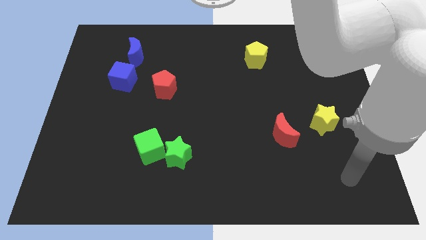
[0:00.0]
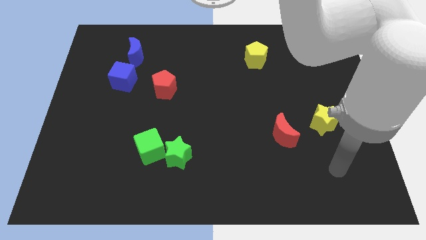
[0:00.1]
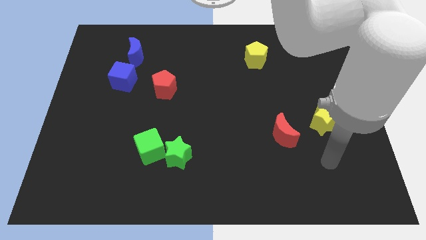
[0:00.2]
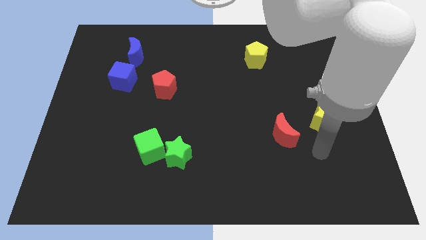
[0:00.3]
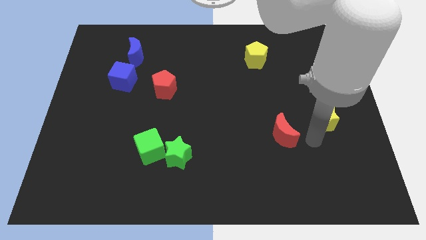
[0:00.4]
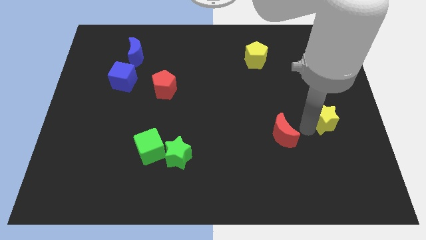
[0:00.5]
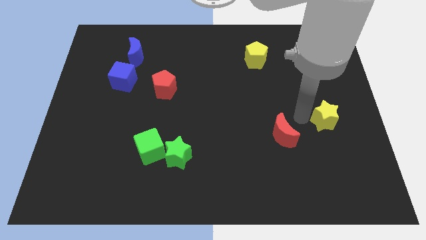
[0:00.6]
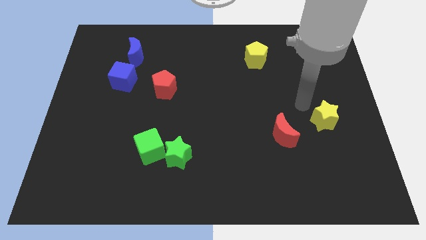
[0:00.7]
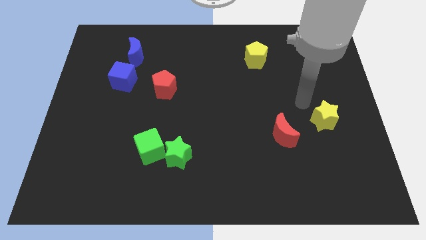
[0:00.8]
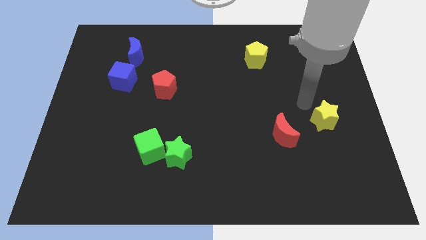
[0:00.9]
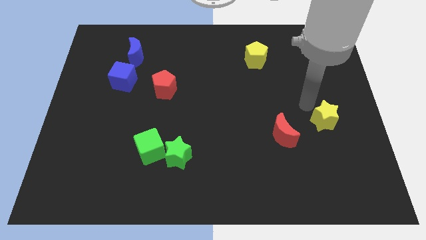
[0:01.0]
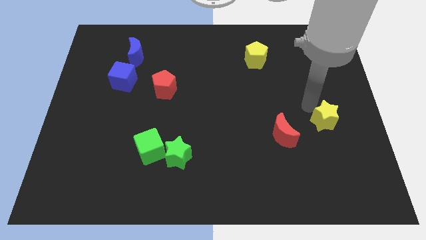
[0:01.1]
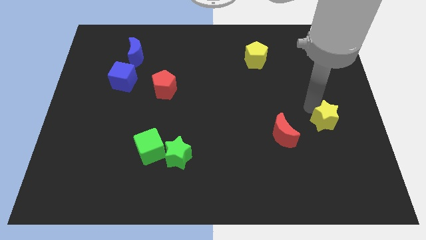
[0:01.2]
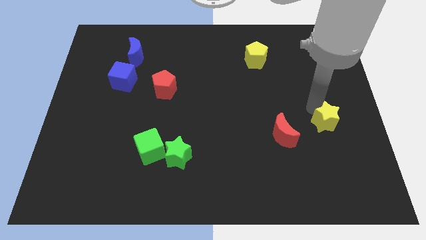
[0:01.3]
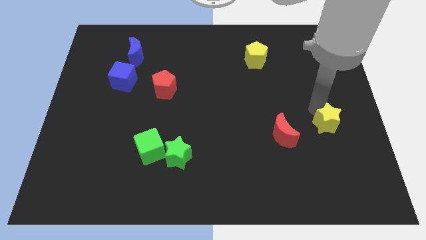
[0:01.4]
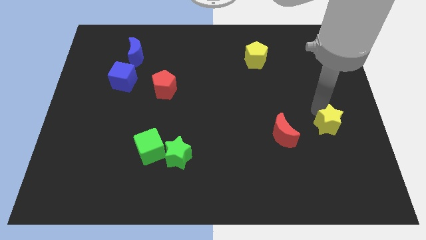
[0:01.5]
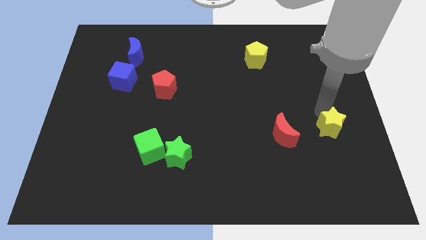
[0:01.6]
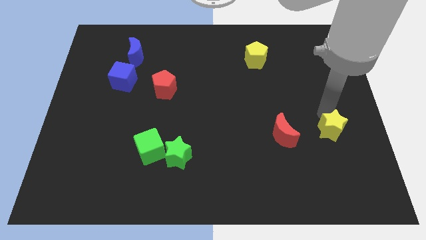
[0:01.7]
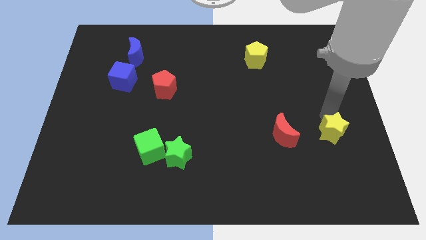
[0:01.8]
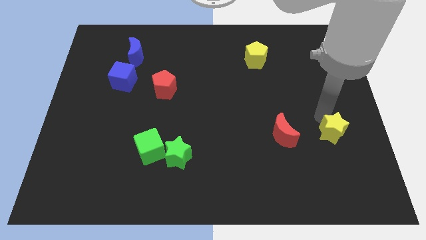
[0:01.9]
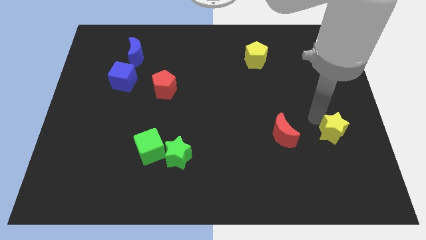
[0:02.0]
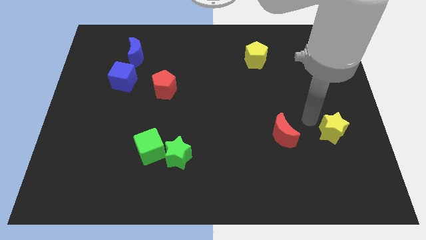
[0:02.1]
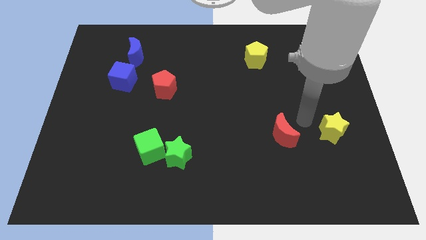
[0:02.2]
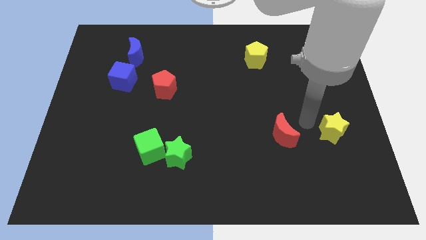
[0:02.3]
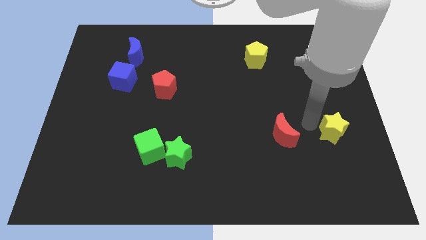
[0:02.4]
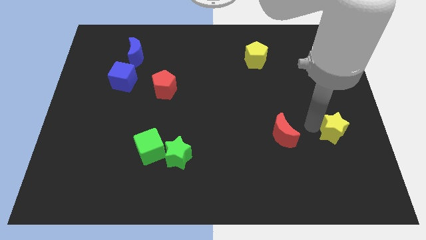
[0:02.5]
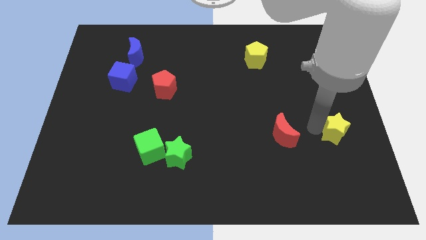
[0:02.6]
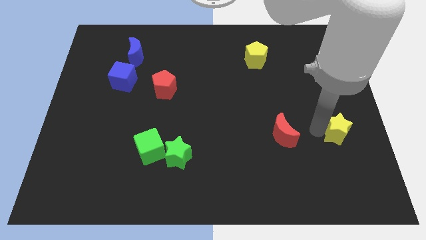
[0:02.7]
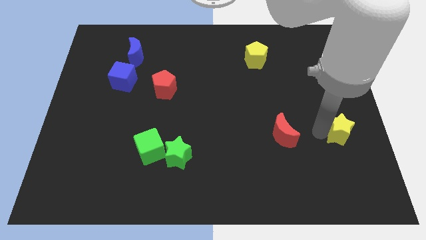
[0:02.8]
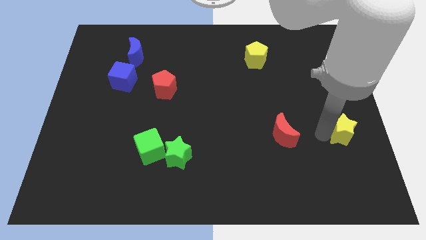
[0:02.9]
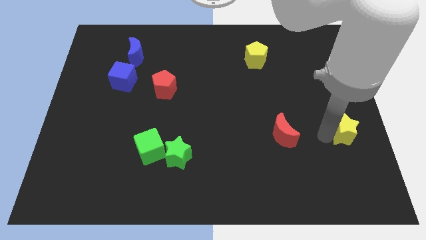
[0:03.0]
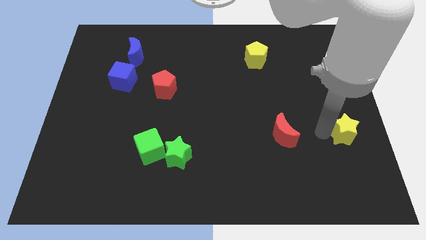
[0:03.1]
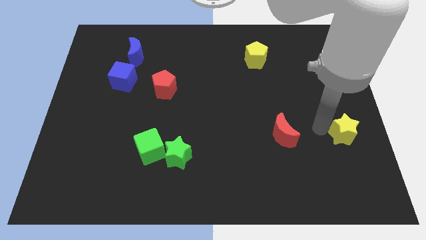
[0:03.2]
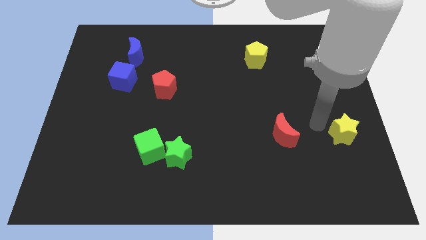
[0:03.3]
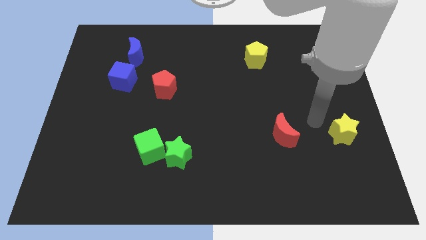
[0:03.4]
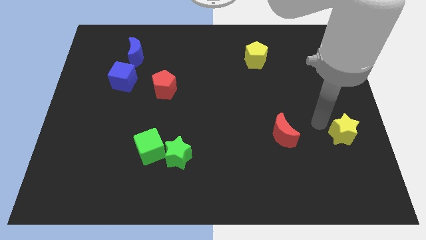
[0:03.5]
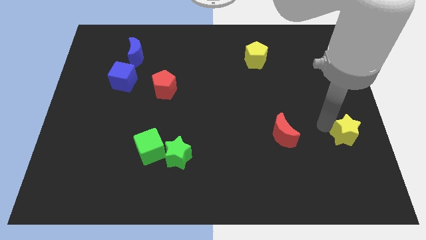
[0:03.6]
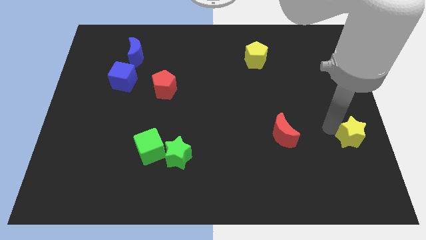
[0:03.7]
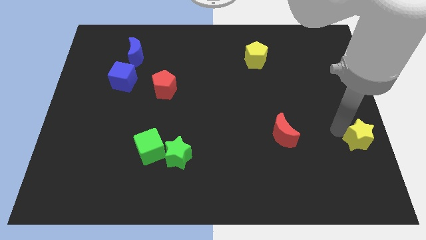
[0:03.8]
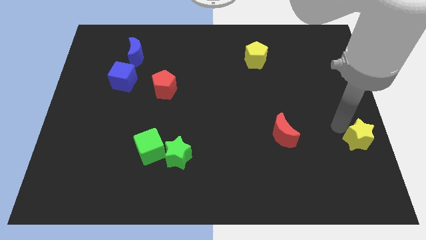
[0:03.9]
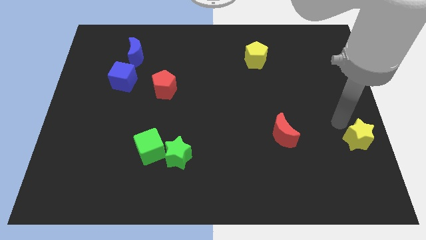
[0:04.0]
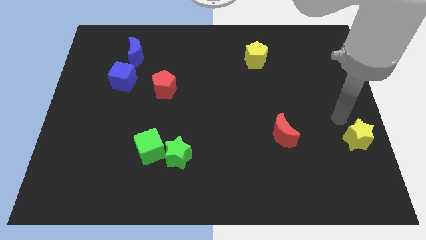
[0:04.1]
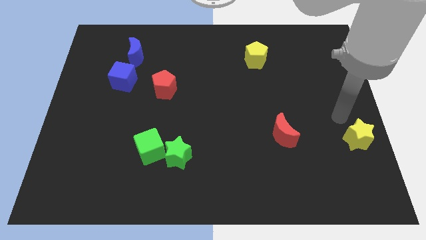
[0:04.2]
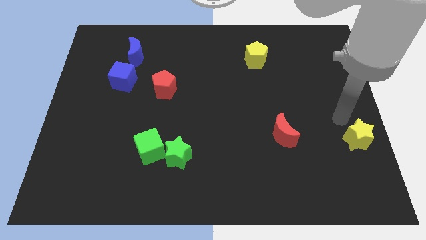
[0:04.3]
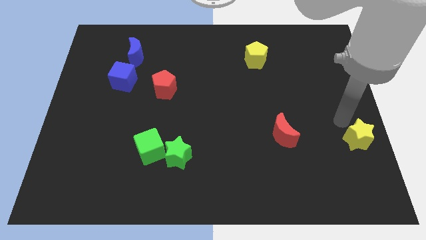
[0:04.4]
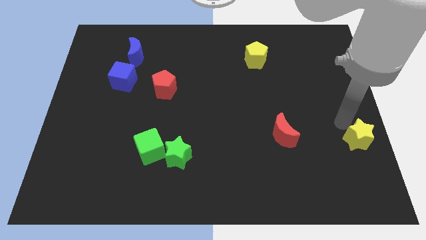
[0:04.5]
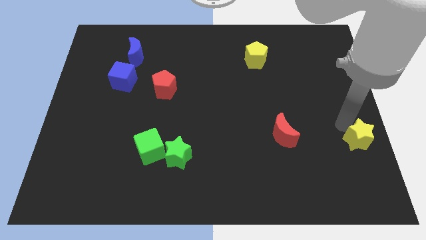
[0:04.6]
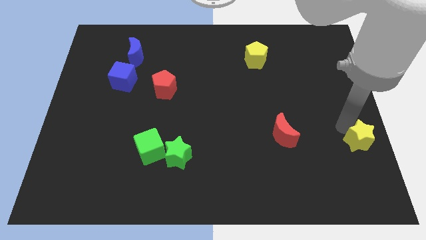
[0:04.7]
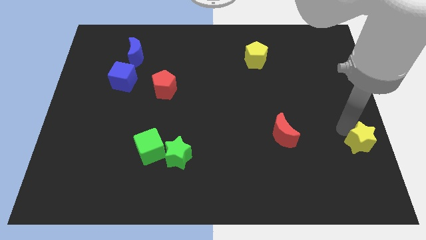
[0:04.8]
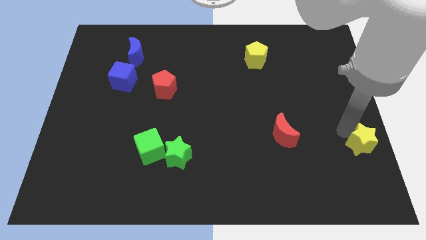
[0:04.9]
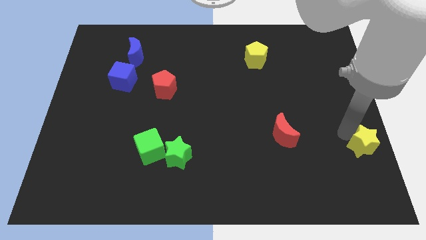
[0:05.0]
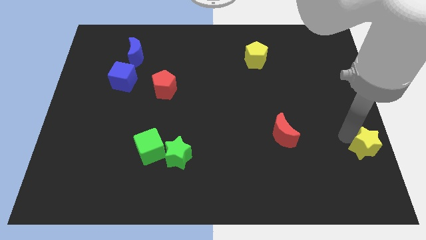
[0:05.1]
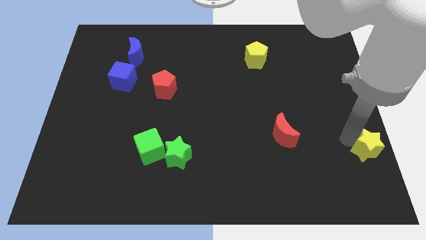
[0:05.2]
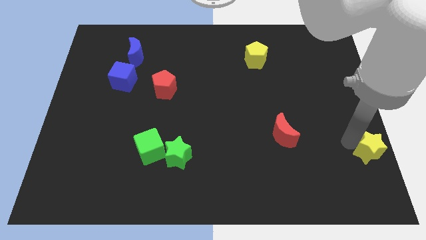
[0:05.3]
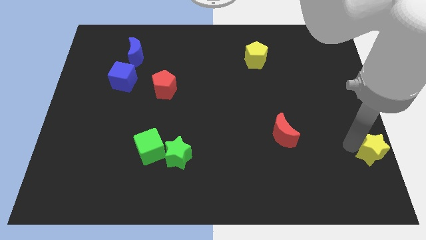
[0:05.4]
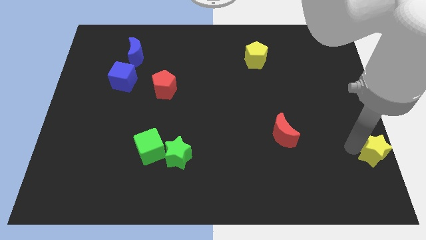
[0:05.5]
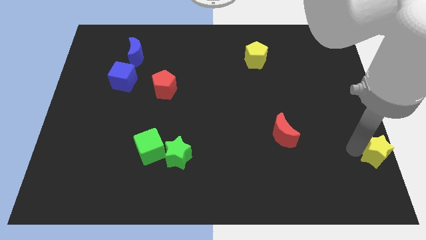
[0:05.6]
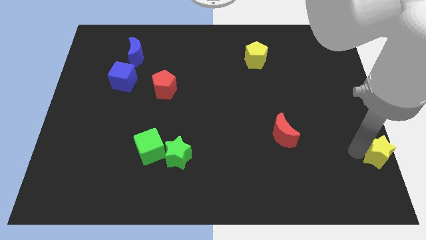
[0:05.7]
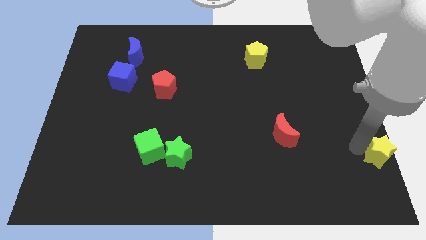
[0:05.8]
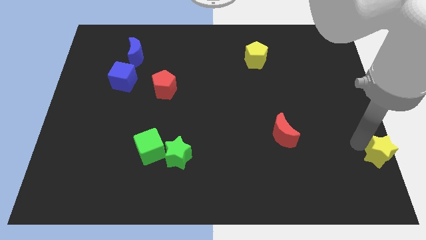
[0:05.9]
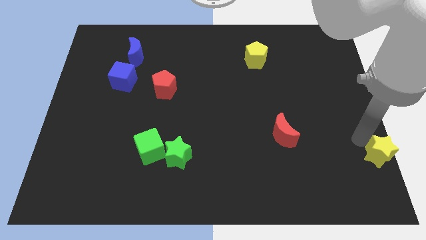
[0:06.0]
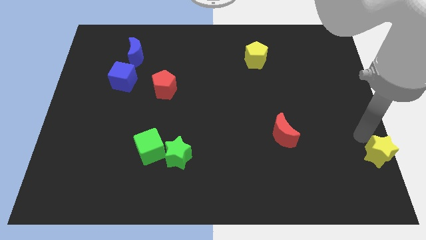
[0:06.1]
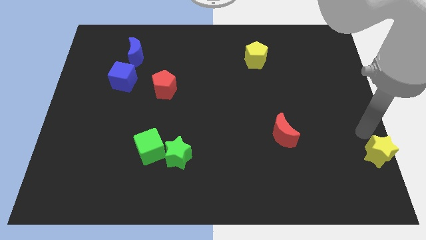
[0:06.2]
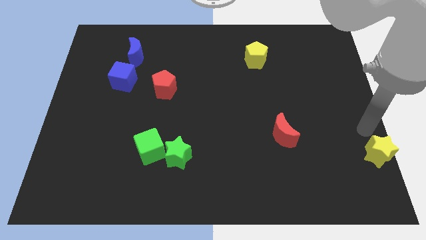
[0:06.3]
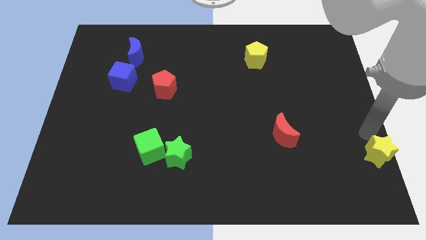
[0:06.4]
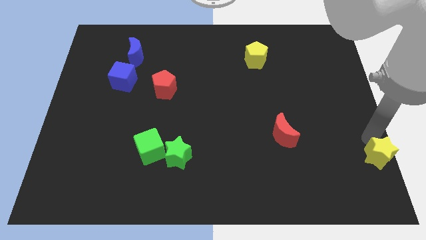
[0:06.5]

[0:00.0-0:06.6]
move the yellow star to the bottom right corner
